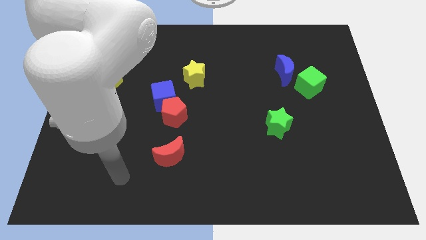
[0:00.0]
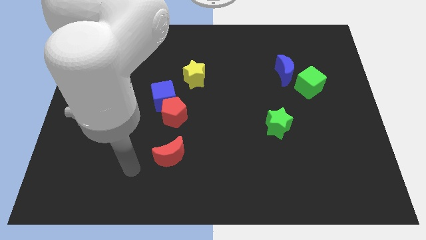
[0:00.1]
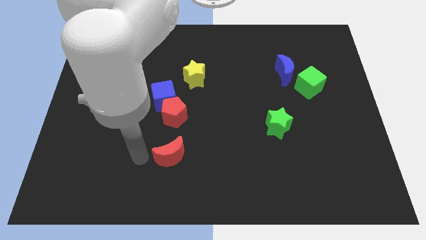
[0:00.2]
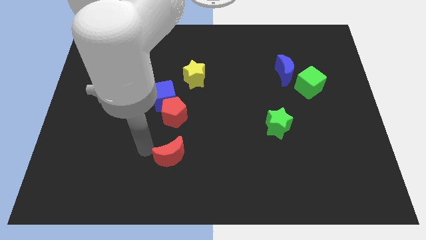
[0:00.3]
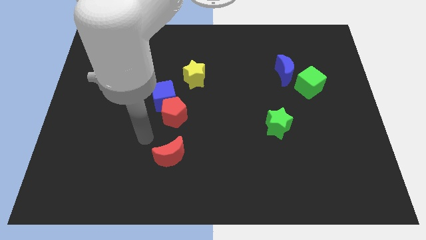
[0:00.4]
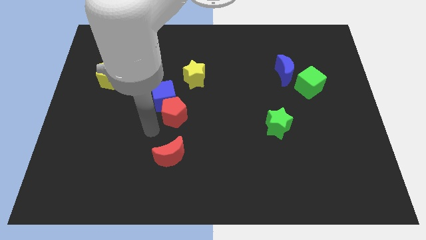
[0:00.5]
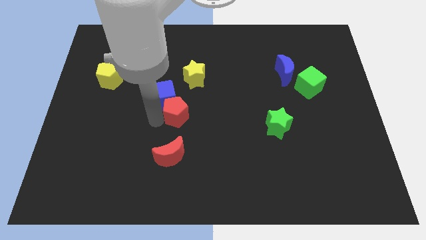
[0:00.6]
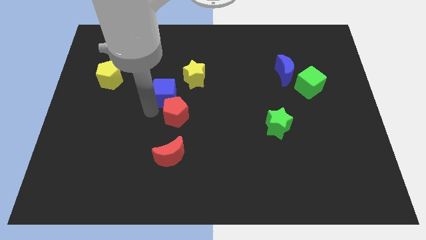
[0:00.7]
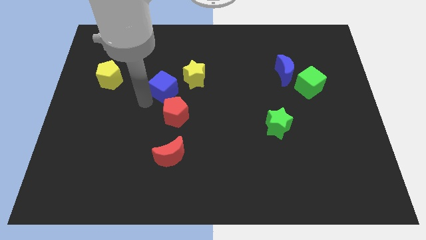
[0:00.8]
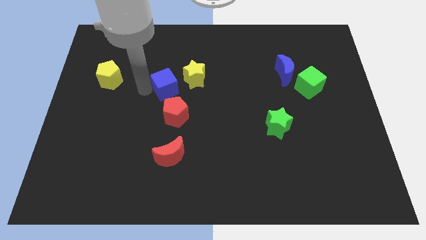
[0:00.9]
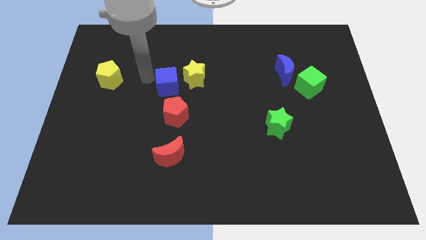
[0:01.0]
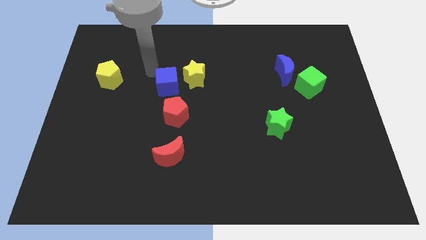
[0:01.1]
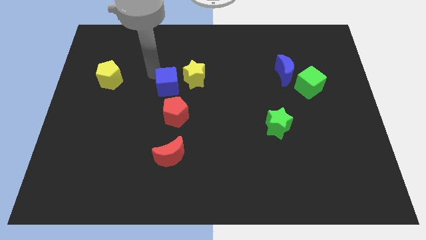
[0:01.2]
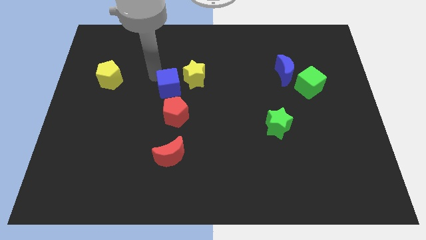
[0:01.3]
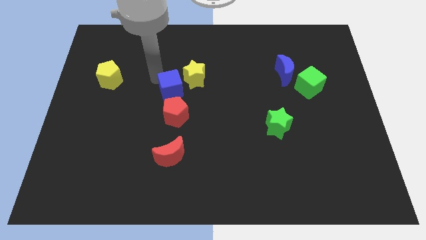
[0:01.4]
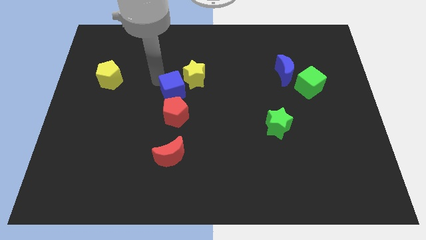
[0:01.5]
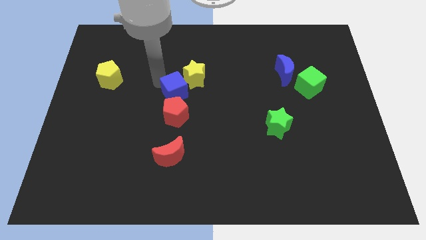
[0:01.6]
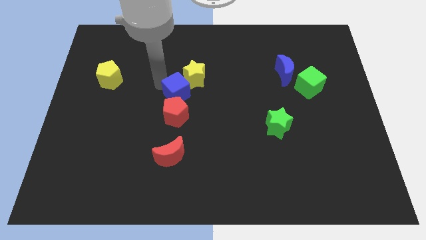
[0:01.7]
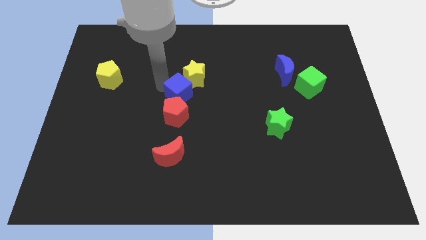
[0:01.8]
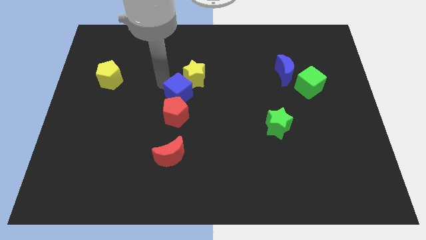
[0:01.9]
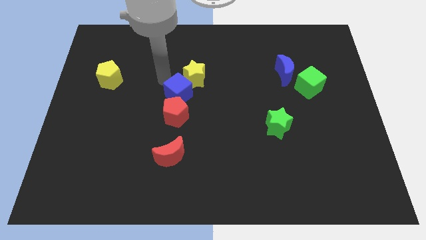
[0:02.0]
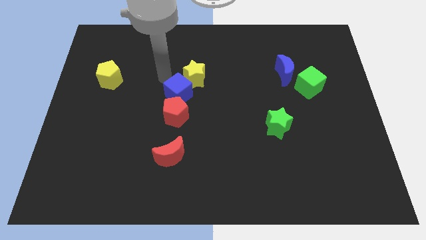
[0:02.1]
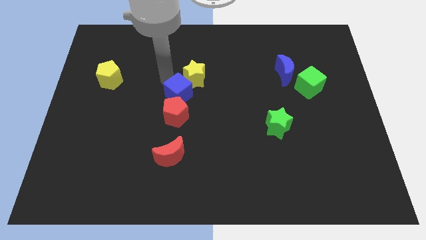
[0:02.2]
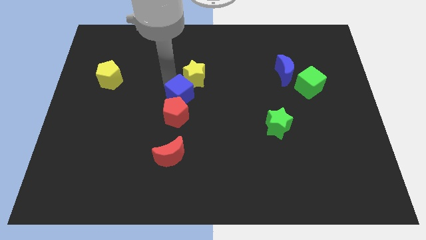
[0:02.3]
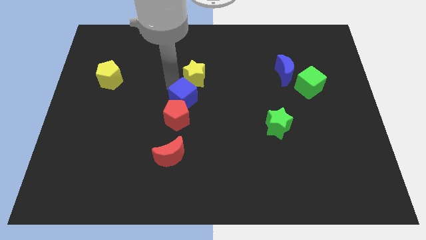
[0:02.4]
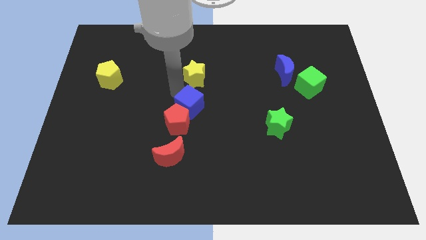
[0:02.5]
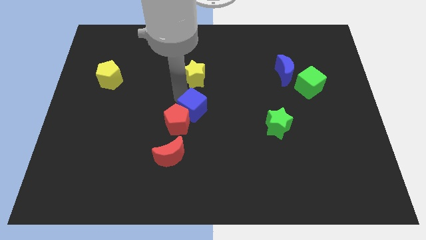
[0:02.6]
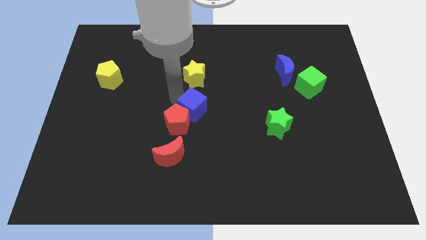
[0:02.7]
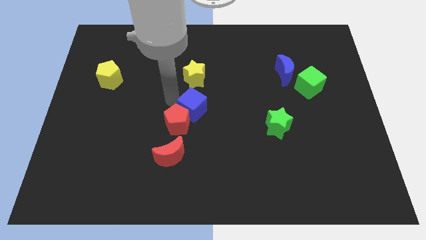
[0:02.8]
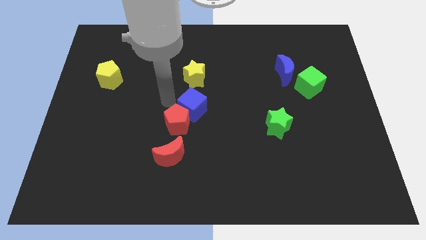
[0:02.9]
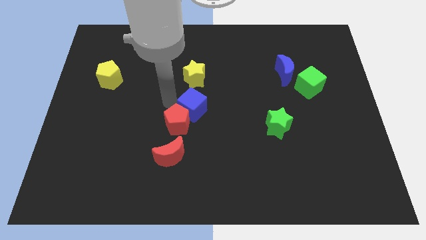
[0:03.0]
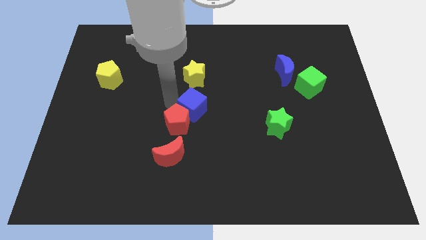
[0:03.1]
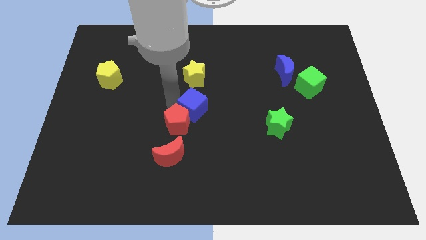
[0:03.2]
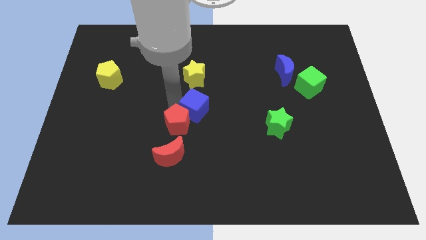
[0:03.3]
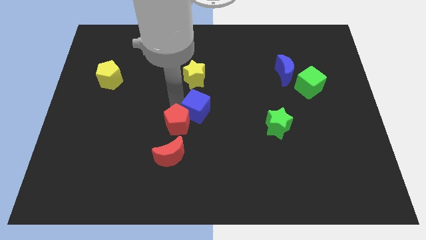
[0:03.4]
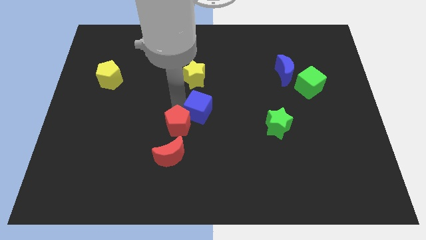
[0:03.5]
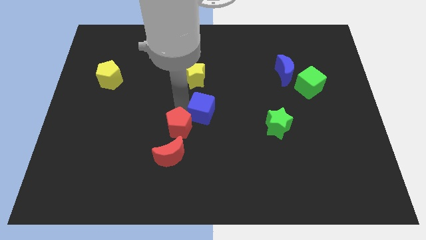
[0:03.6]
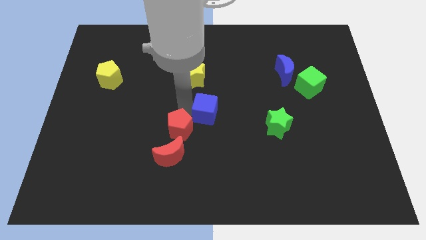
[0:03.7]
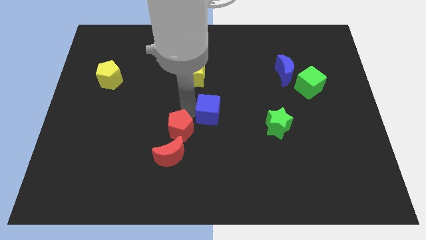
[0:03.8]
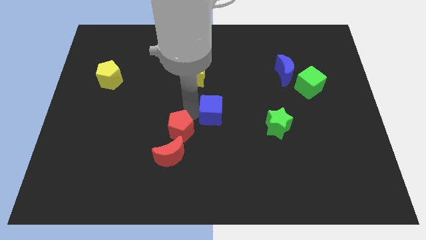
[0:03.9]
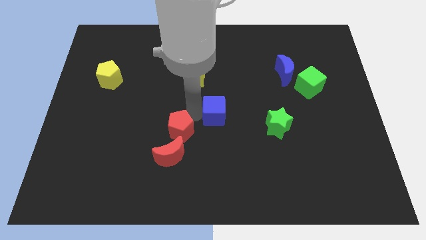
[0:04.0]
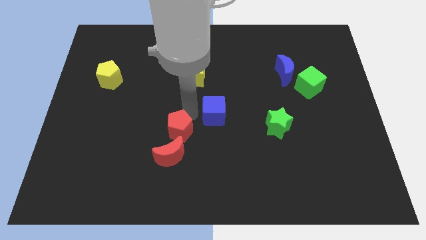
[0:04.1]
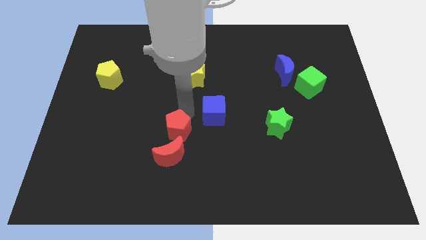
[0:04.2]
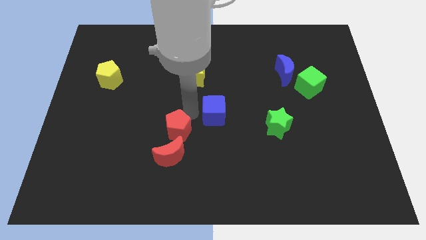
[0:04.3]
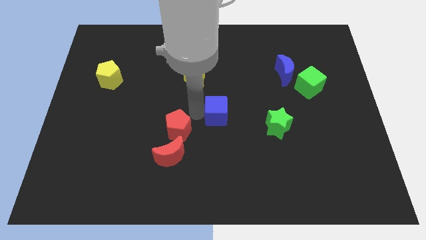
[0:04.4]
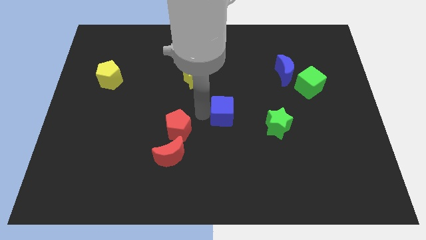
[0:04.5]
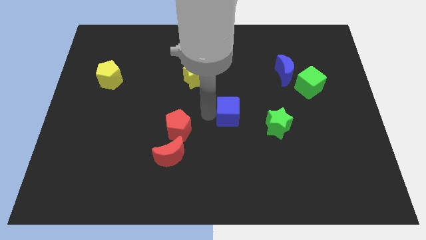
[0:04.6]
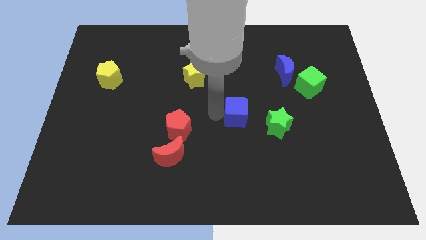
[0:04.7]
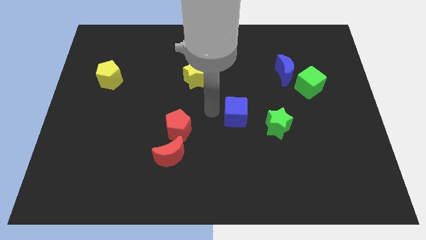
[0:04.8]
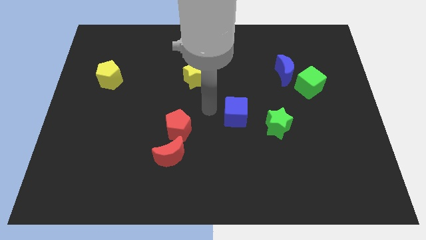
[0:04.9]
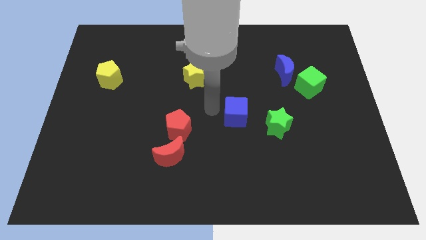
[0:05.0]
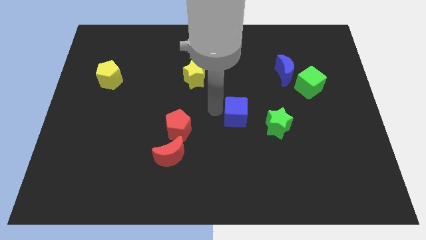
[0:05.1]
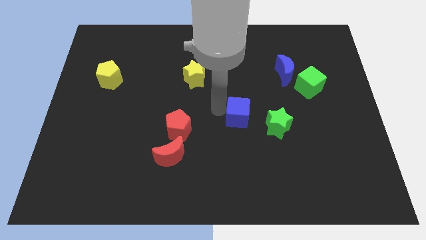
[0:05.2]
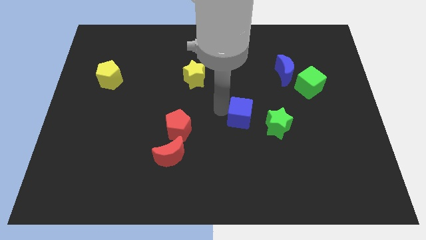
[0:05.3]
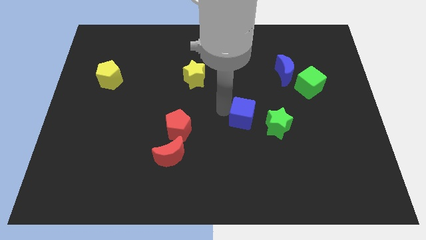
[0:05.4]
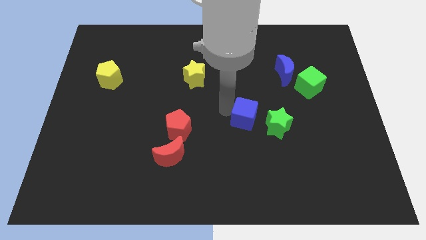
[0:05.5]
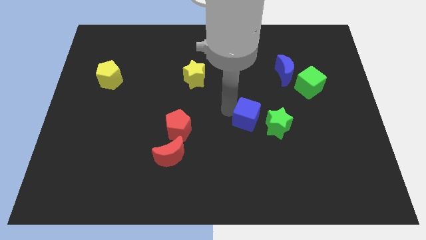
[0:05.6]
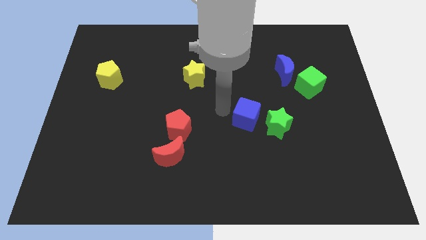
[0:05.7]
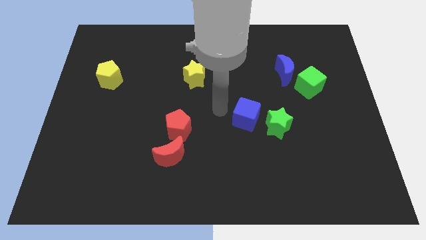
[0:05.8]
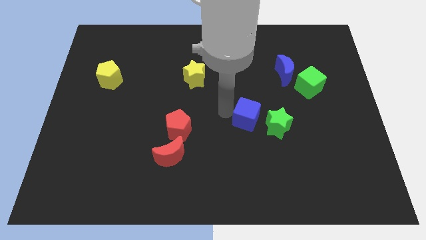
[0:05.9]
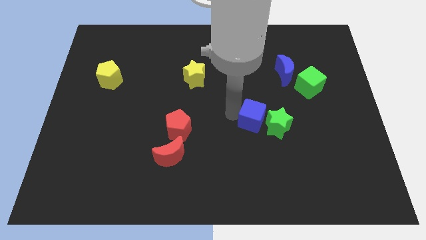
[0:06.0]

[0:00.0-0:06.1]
move the blue cube towards the green star

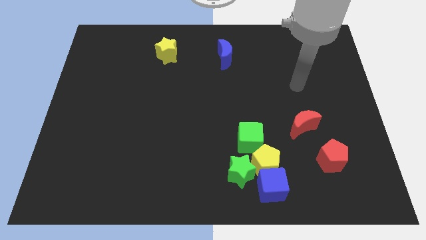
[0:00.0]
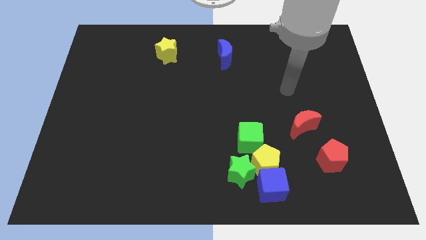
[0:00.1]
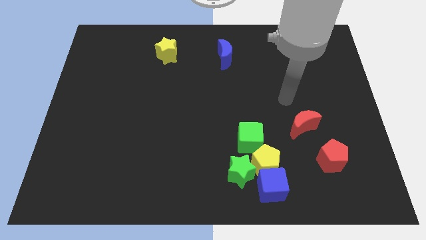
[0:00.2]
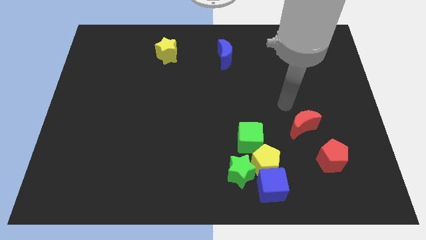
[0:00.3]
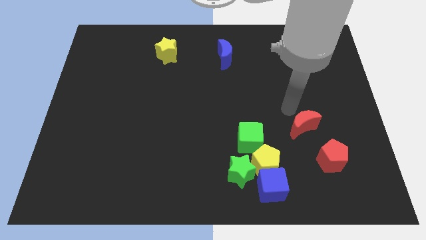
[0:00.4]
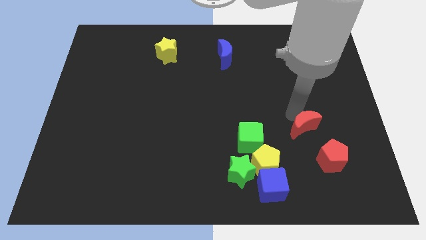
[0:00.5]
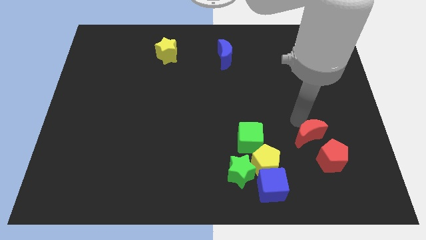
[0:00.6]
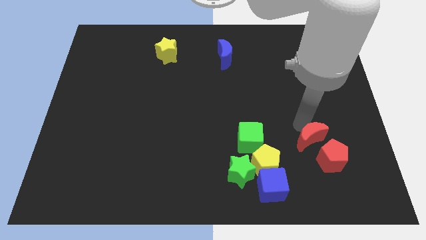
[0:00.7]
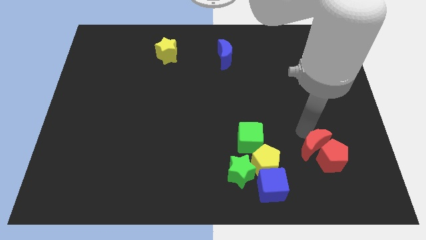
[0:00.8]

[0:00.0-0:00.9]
push the red moon to the red pentagon
